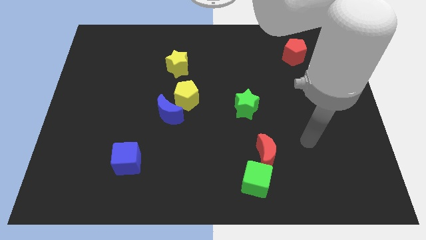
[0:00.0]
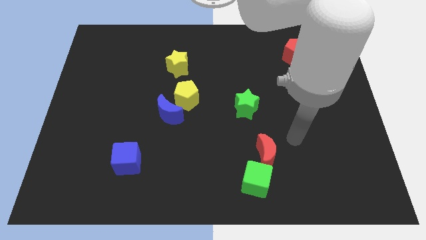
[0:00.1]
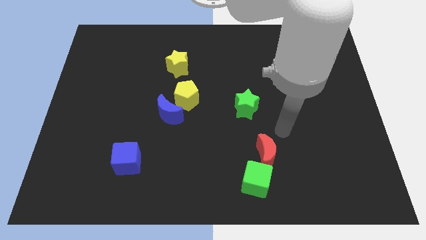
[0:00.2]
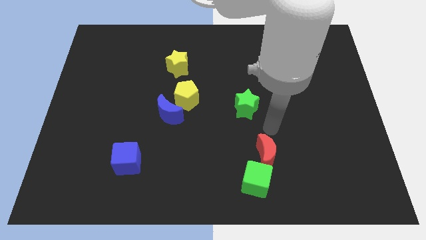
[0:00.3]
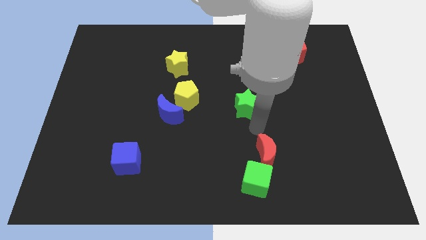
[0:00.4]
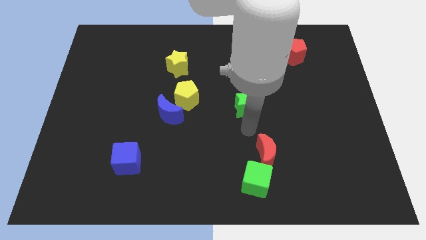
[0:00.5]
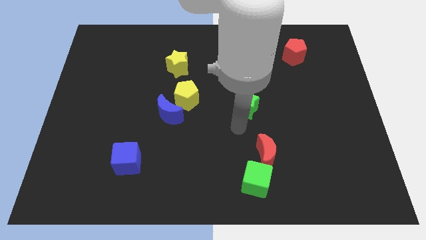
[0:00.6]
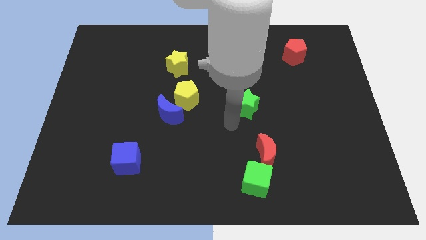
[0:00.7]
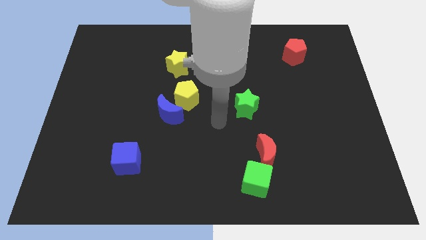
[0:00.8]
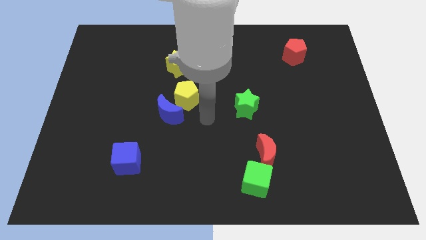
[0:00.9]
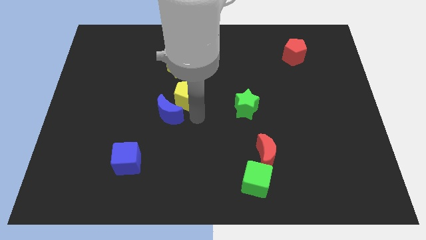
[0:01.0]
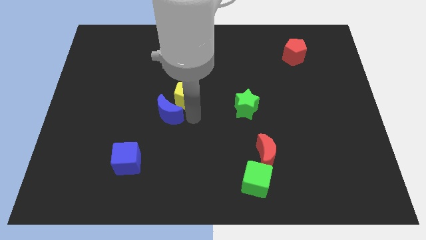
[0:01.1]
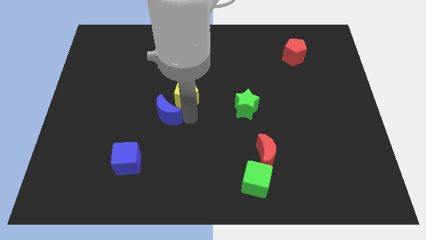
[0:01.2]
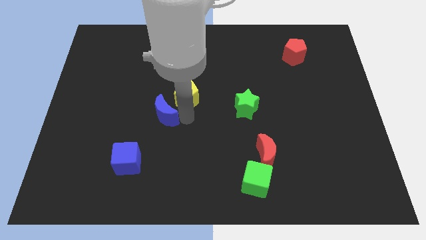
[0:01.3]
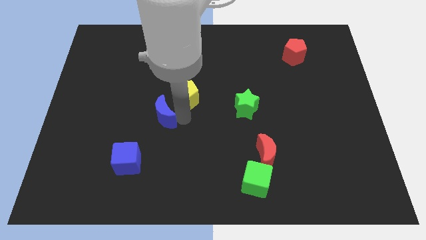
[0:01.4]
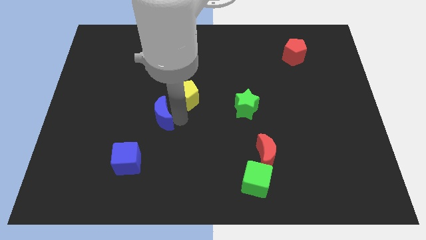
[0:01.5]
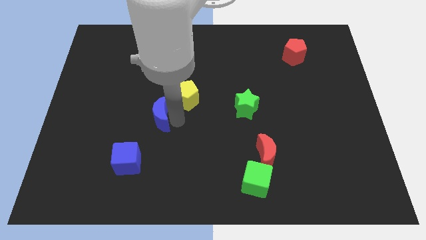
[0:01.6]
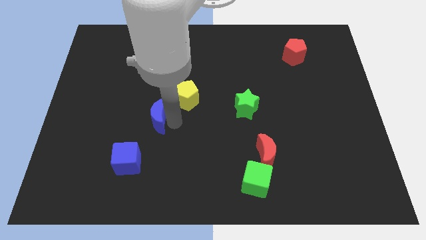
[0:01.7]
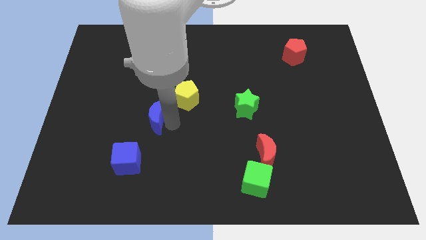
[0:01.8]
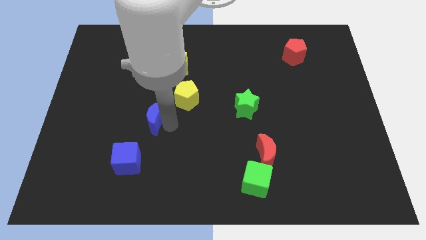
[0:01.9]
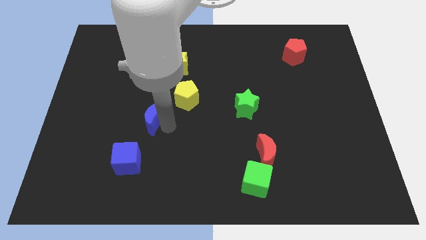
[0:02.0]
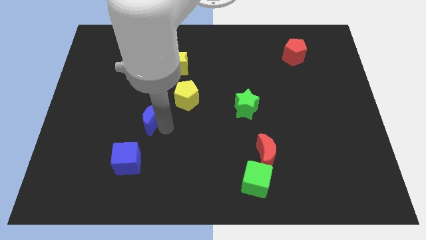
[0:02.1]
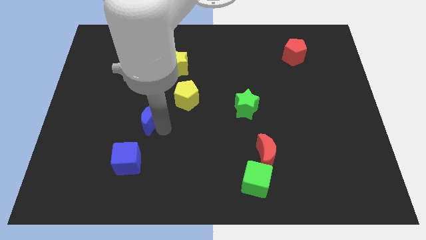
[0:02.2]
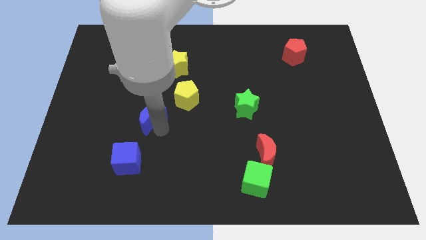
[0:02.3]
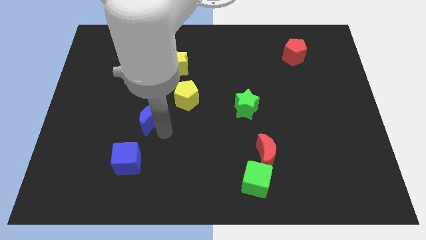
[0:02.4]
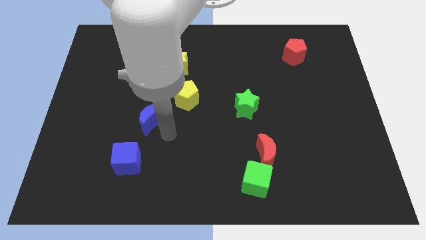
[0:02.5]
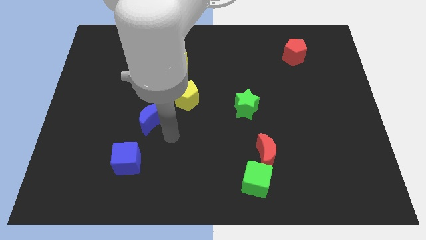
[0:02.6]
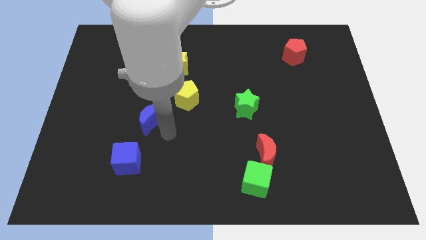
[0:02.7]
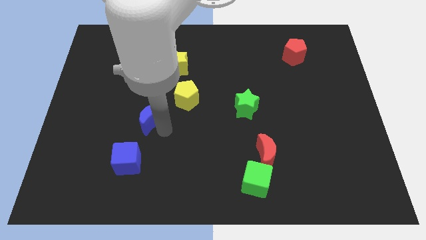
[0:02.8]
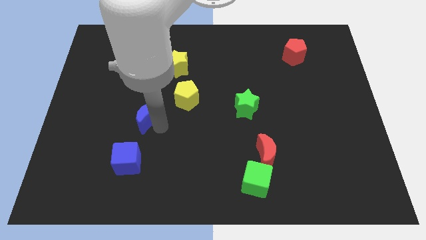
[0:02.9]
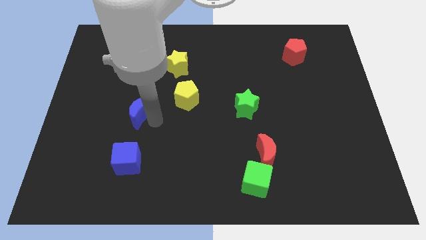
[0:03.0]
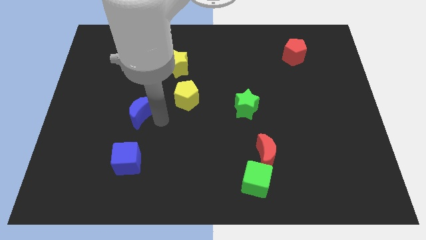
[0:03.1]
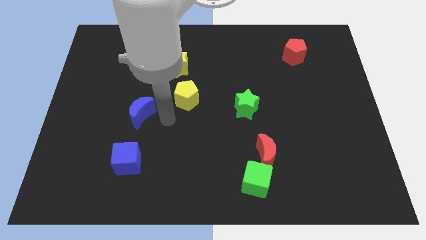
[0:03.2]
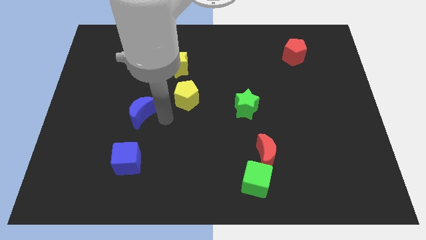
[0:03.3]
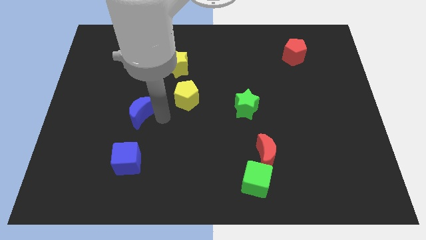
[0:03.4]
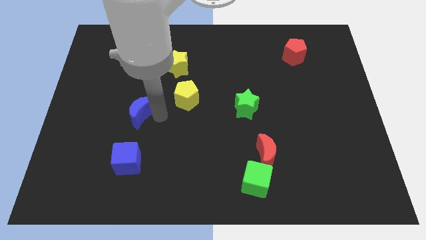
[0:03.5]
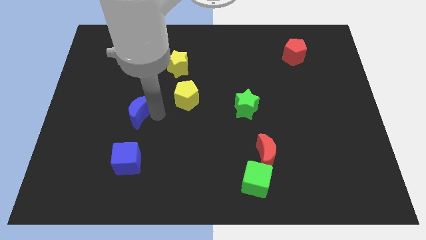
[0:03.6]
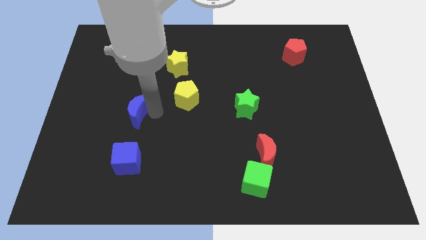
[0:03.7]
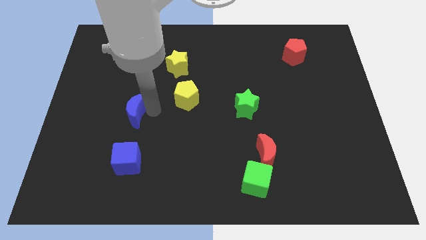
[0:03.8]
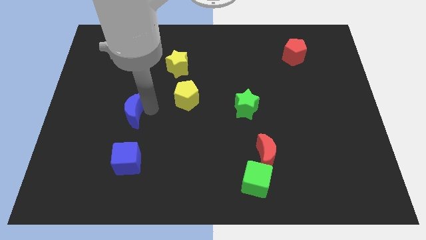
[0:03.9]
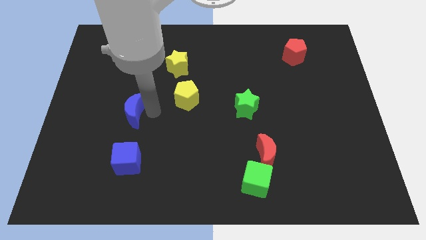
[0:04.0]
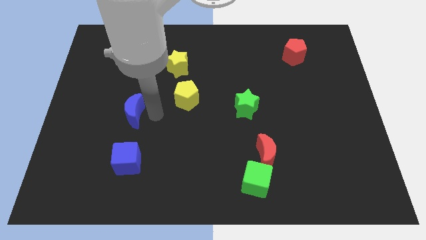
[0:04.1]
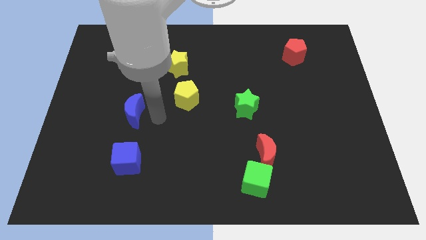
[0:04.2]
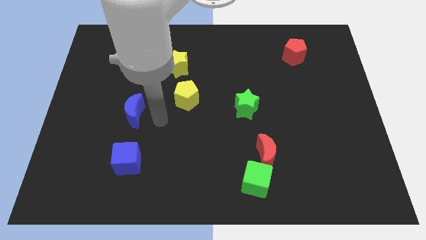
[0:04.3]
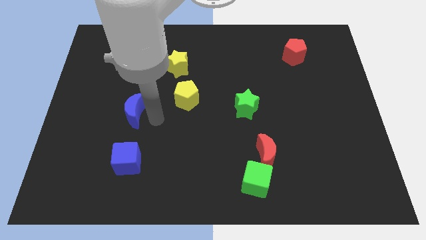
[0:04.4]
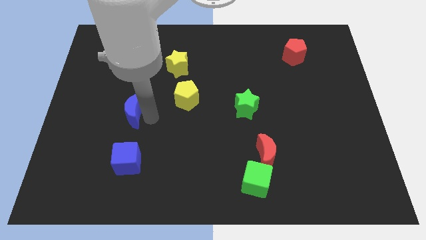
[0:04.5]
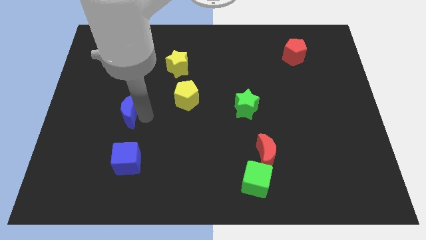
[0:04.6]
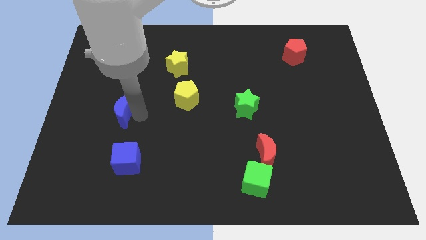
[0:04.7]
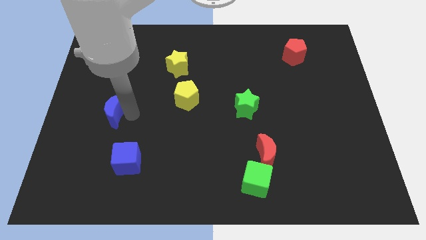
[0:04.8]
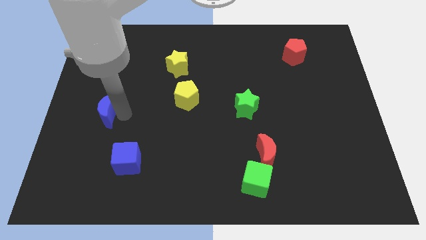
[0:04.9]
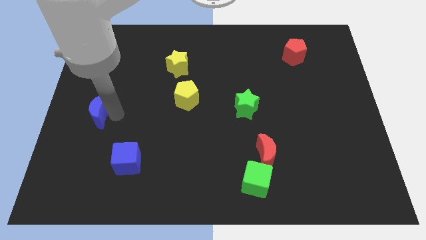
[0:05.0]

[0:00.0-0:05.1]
move the blue moon to the left side of the board

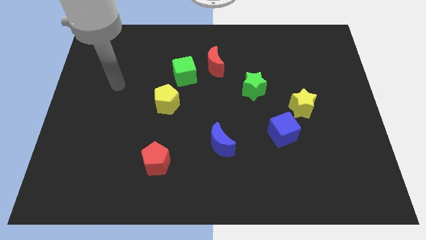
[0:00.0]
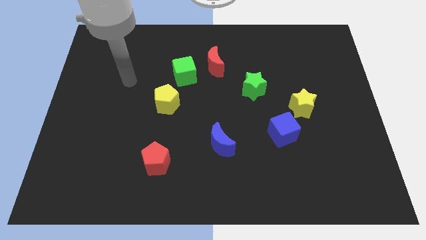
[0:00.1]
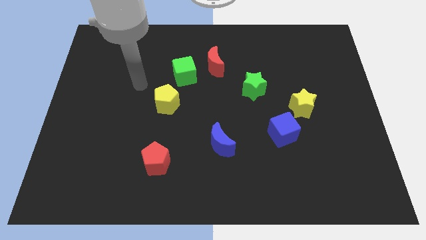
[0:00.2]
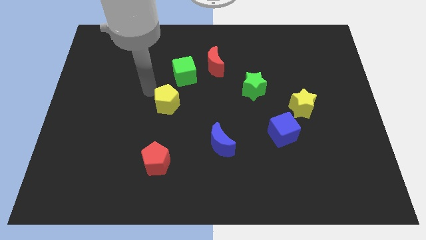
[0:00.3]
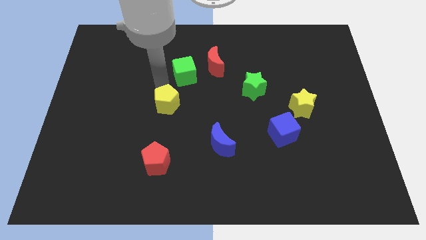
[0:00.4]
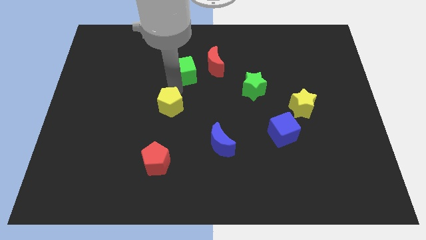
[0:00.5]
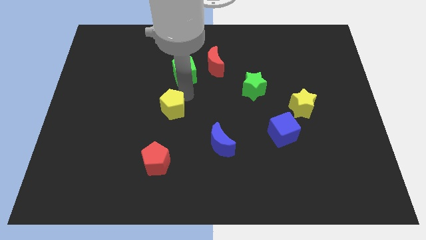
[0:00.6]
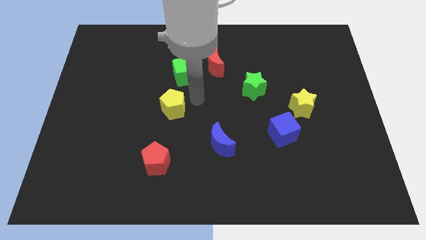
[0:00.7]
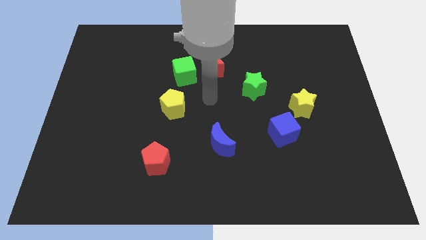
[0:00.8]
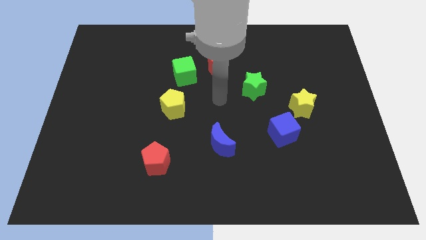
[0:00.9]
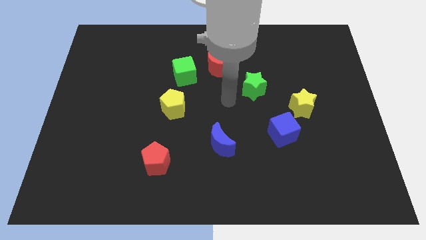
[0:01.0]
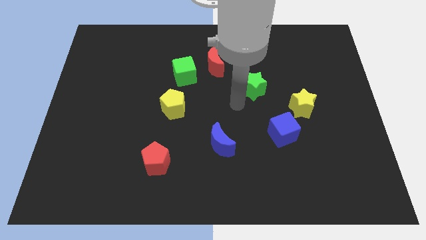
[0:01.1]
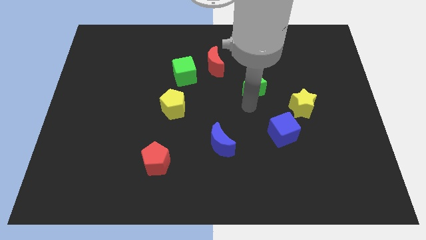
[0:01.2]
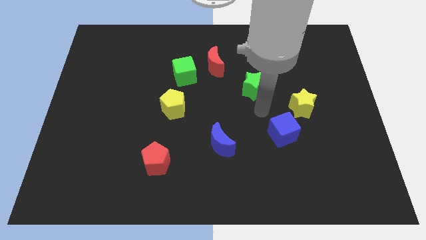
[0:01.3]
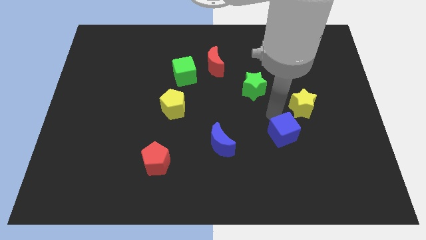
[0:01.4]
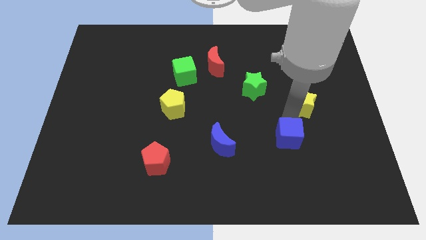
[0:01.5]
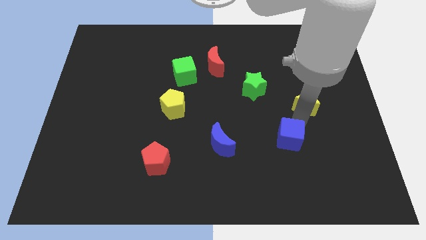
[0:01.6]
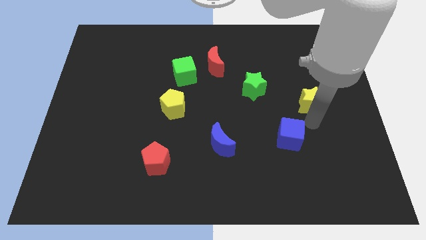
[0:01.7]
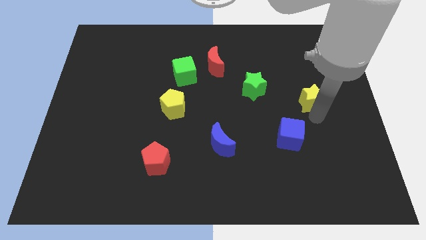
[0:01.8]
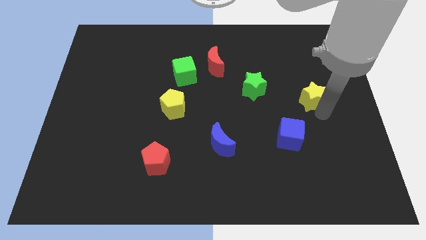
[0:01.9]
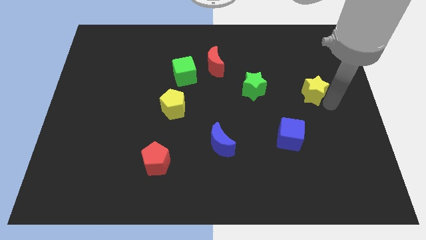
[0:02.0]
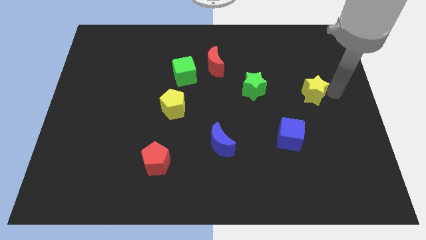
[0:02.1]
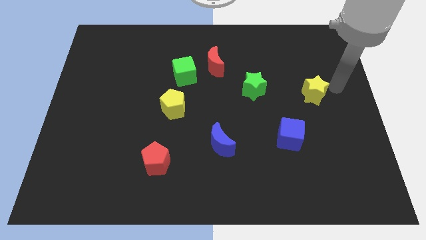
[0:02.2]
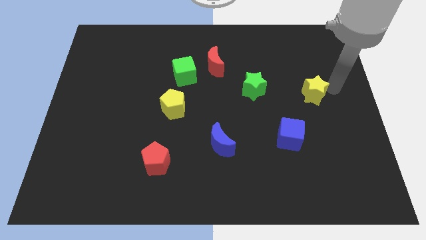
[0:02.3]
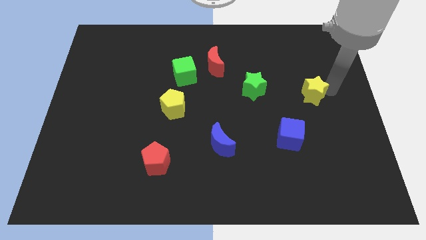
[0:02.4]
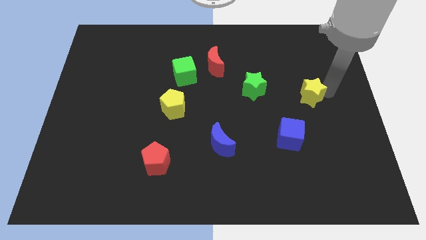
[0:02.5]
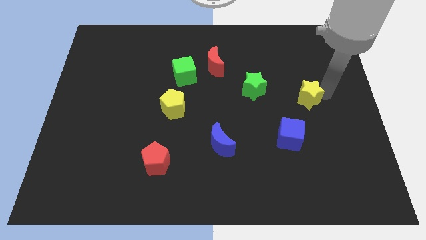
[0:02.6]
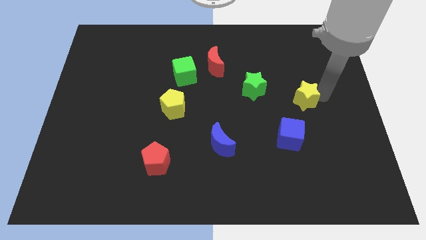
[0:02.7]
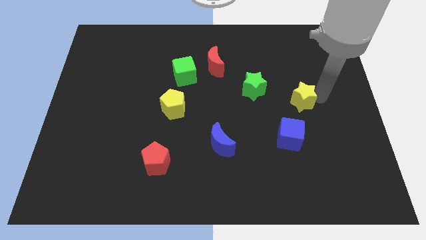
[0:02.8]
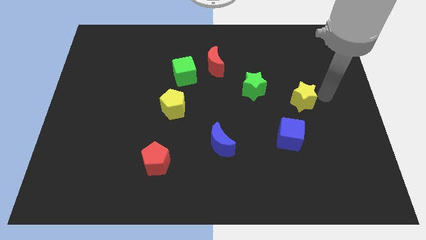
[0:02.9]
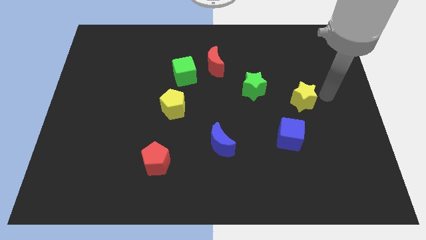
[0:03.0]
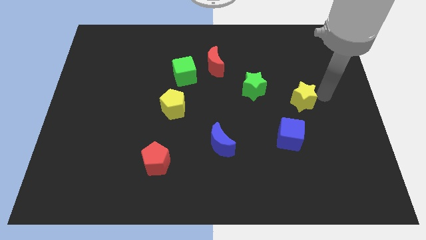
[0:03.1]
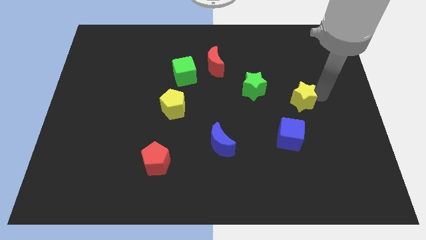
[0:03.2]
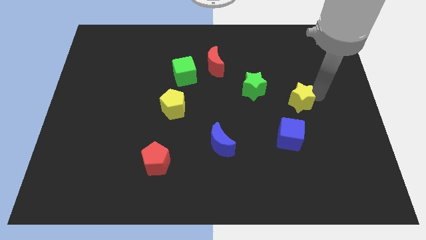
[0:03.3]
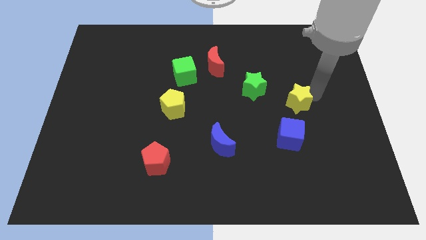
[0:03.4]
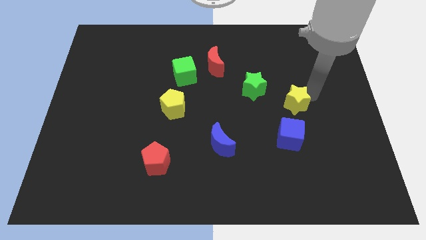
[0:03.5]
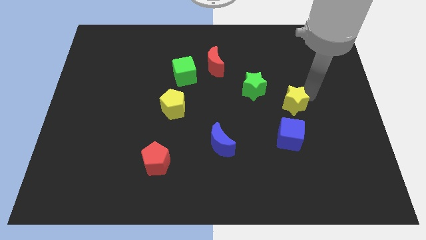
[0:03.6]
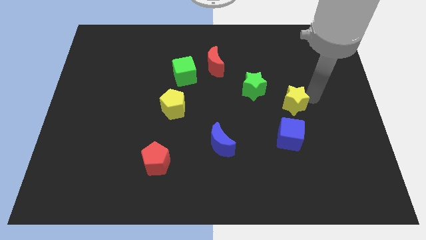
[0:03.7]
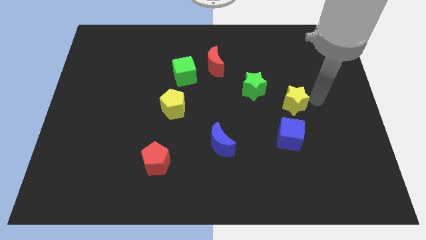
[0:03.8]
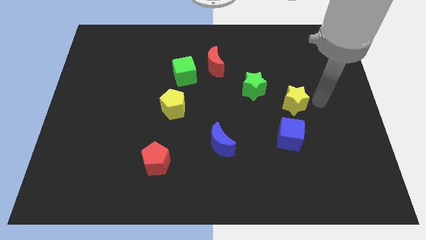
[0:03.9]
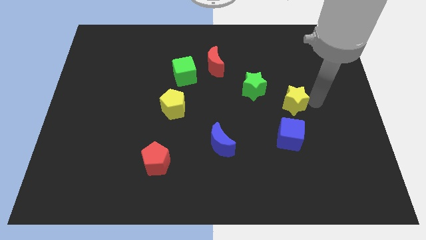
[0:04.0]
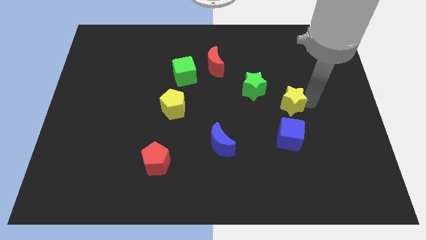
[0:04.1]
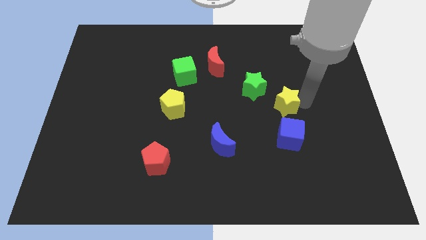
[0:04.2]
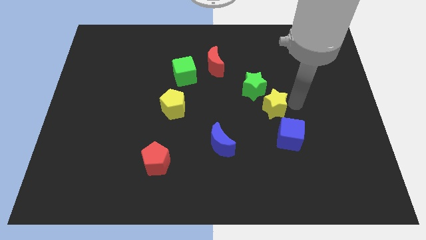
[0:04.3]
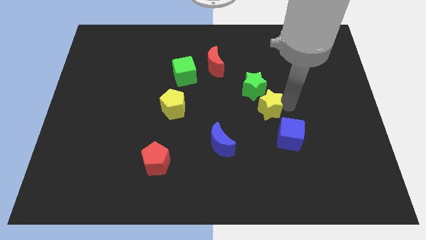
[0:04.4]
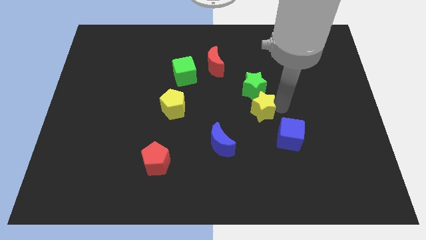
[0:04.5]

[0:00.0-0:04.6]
slide the yellow star to the center of the board
